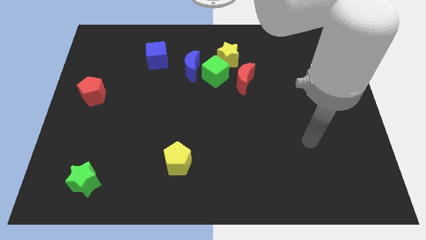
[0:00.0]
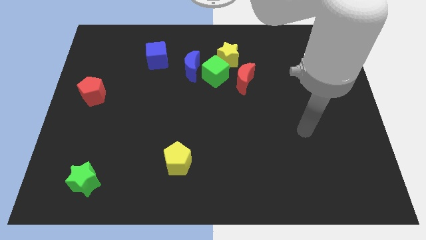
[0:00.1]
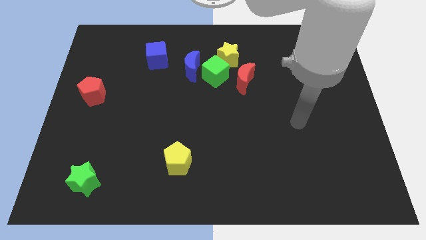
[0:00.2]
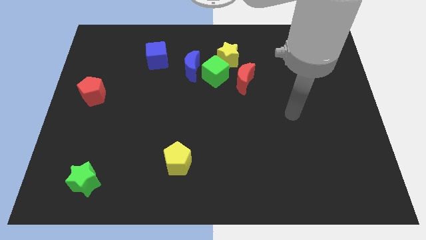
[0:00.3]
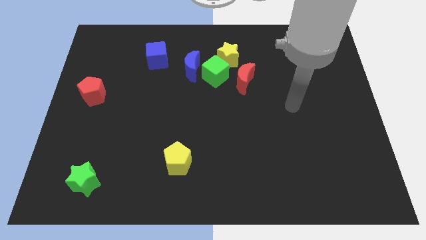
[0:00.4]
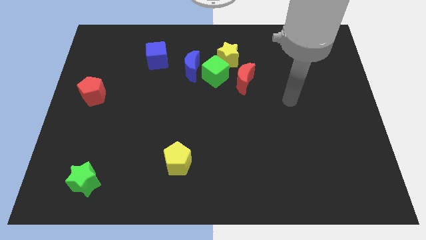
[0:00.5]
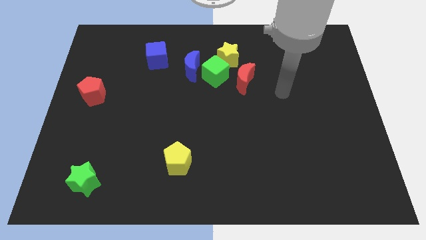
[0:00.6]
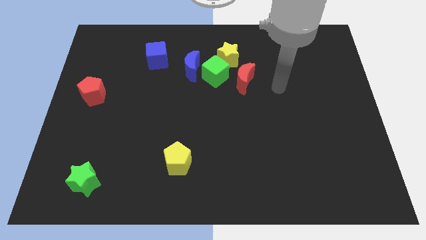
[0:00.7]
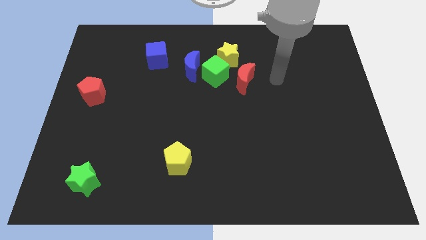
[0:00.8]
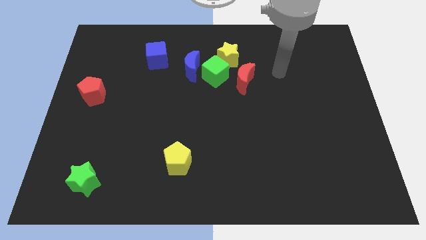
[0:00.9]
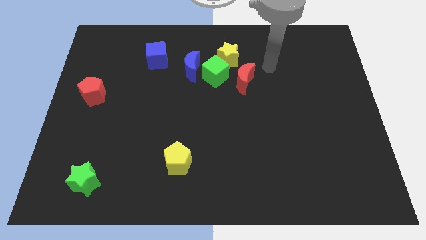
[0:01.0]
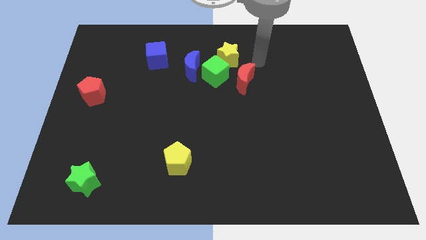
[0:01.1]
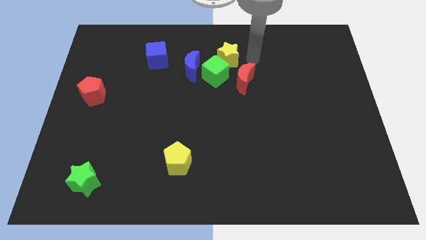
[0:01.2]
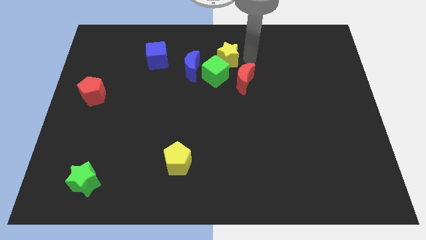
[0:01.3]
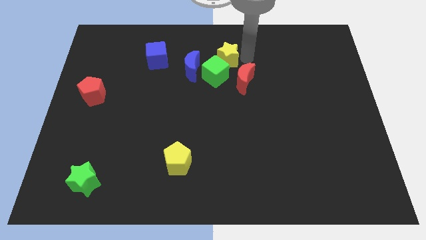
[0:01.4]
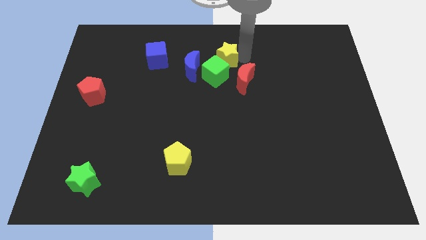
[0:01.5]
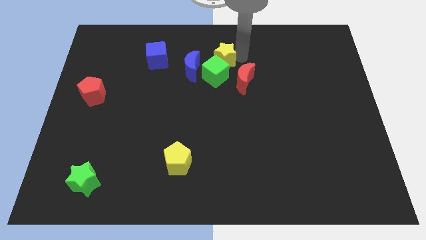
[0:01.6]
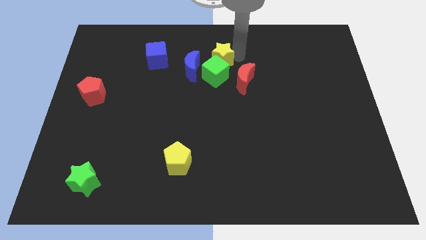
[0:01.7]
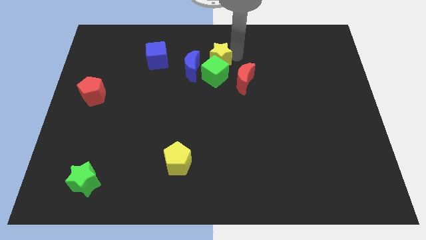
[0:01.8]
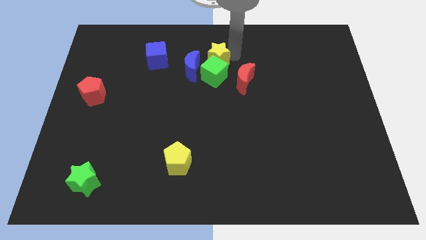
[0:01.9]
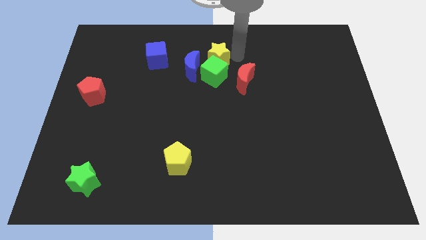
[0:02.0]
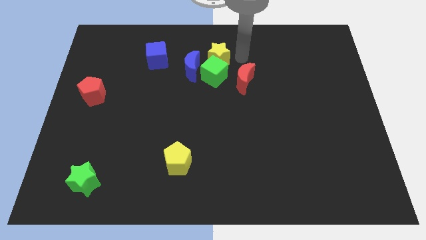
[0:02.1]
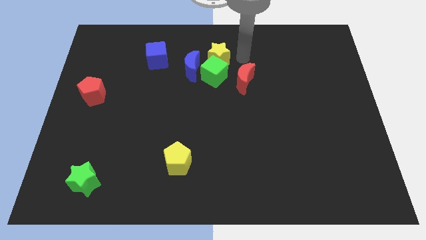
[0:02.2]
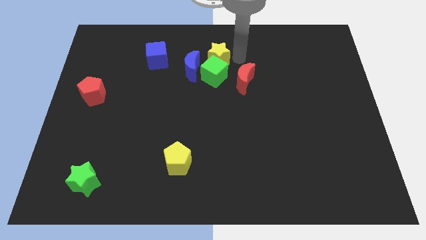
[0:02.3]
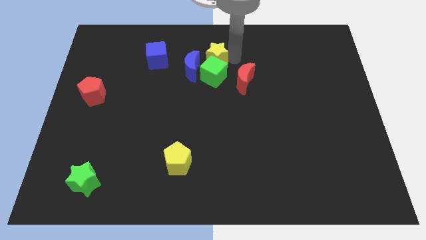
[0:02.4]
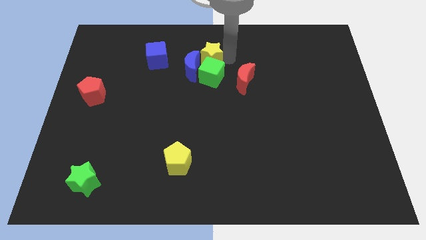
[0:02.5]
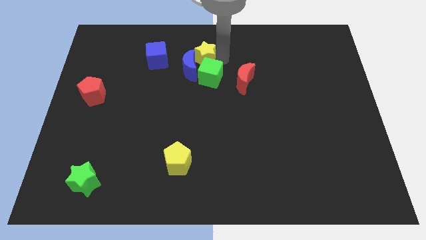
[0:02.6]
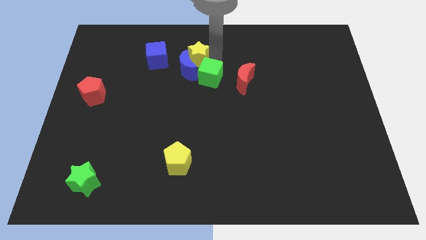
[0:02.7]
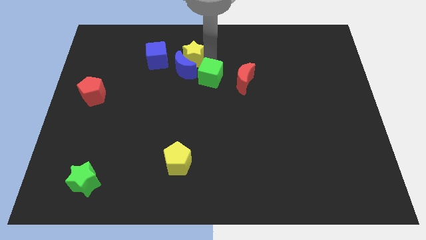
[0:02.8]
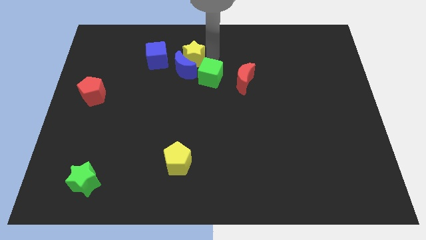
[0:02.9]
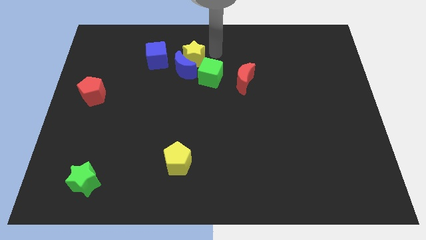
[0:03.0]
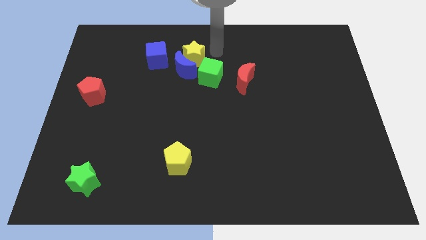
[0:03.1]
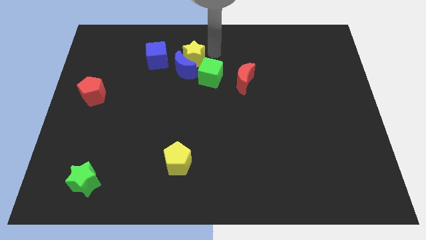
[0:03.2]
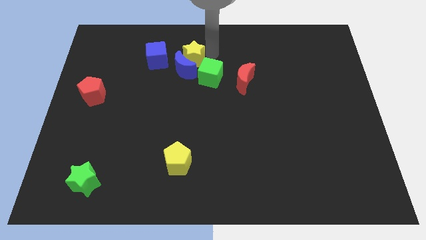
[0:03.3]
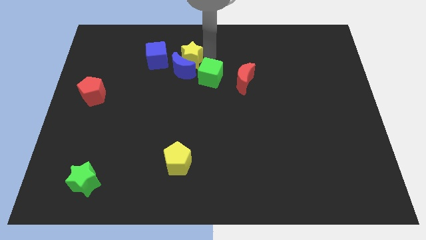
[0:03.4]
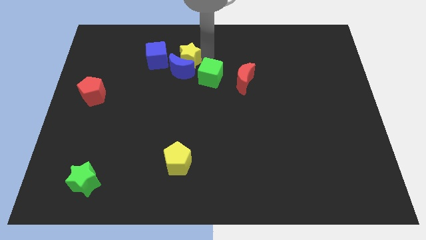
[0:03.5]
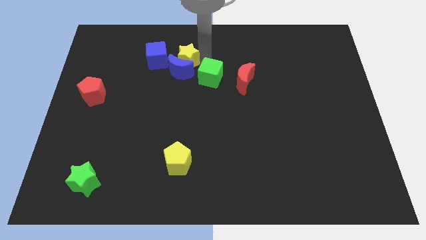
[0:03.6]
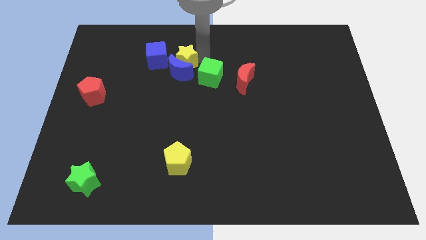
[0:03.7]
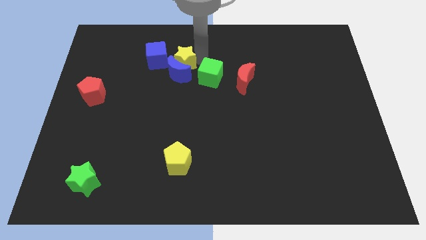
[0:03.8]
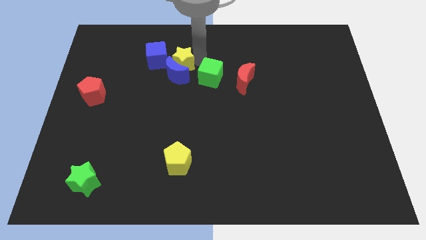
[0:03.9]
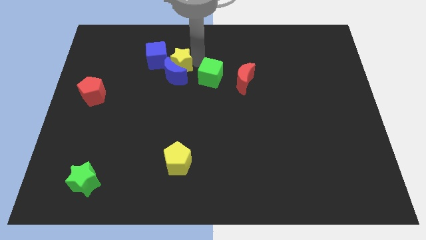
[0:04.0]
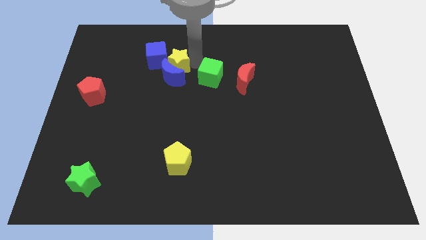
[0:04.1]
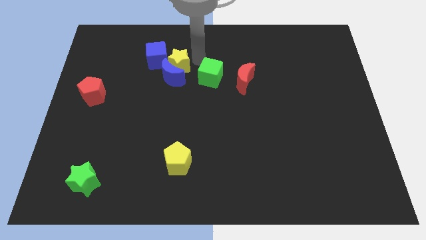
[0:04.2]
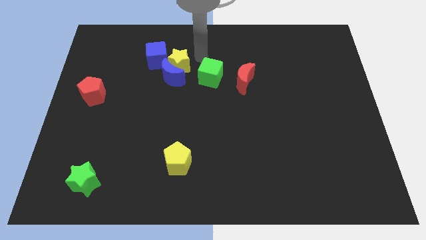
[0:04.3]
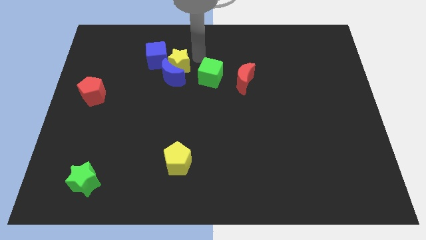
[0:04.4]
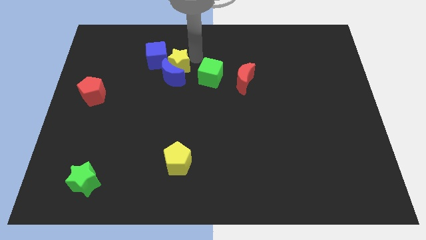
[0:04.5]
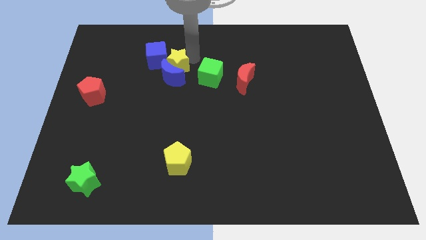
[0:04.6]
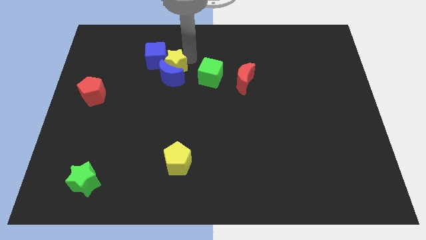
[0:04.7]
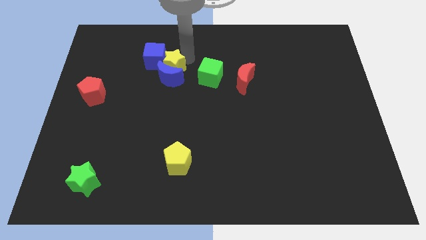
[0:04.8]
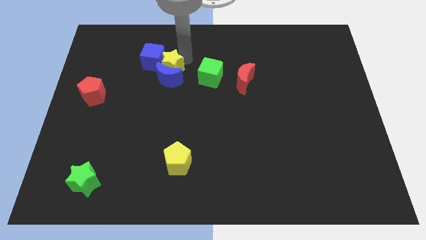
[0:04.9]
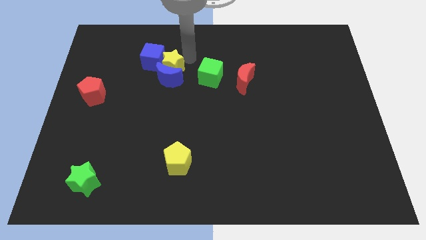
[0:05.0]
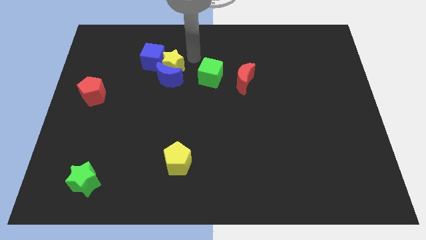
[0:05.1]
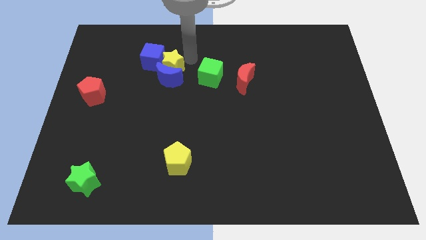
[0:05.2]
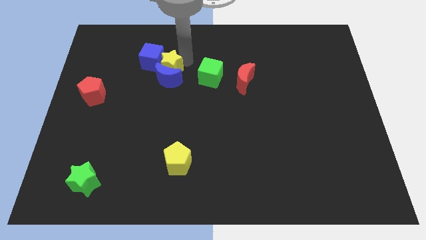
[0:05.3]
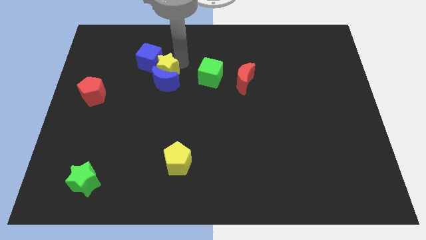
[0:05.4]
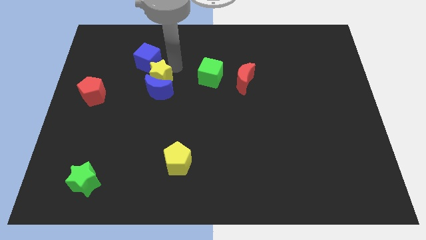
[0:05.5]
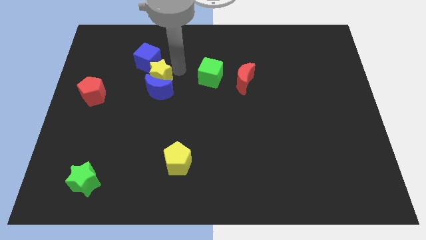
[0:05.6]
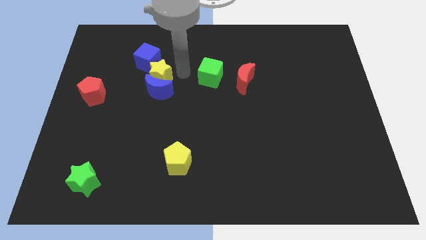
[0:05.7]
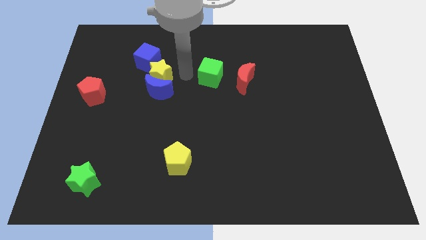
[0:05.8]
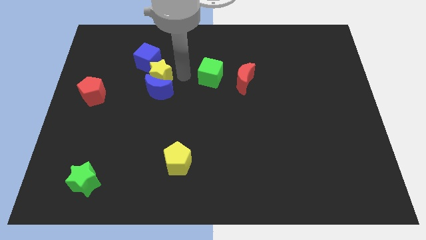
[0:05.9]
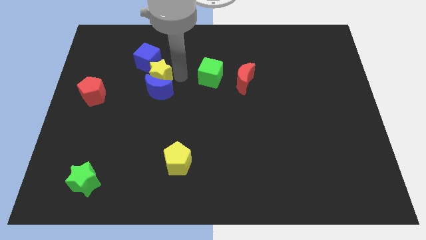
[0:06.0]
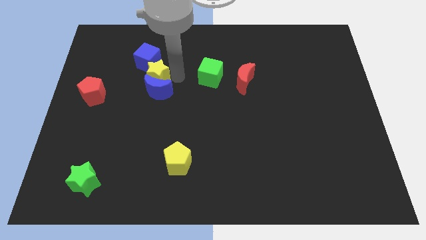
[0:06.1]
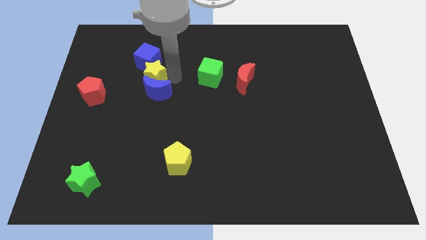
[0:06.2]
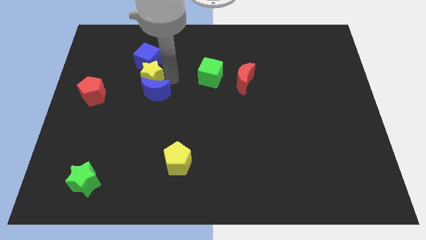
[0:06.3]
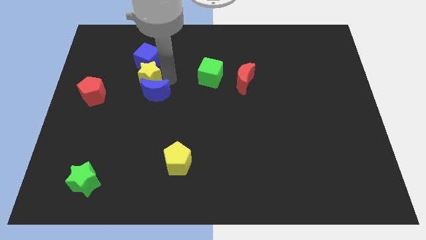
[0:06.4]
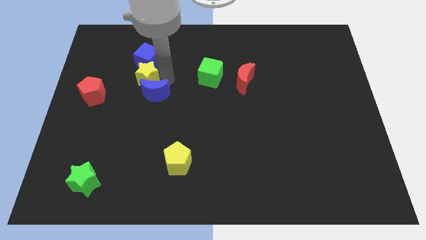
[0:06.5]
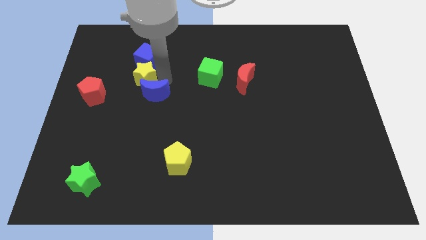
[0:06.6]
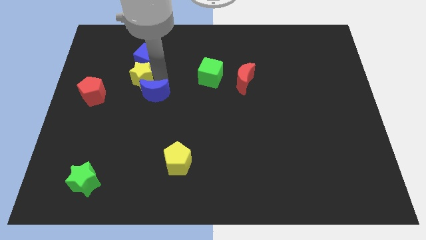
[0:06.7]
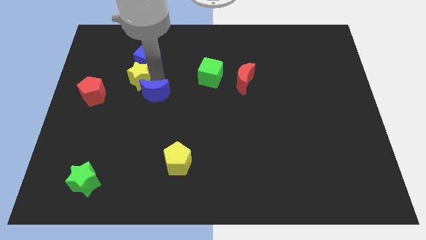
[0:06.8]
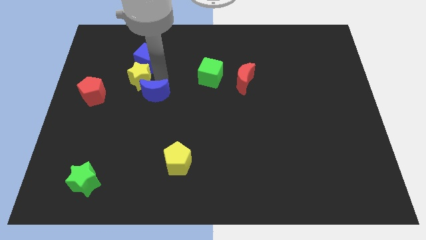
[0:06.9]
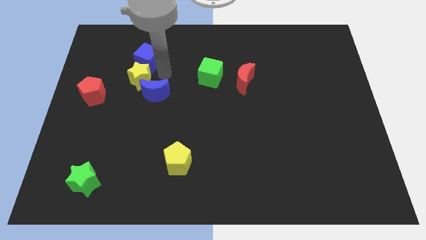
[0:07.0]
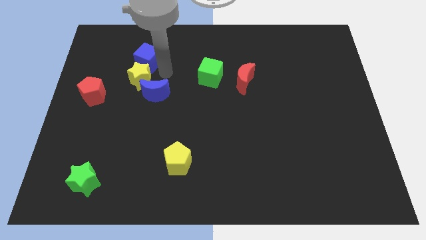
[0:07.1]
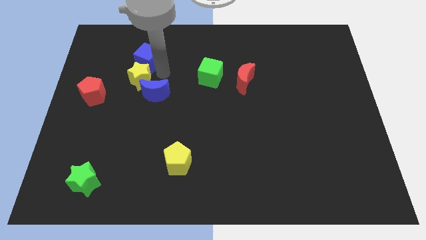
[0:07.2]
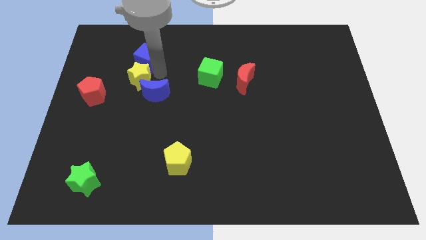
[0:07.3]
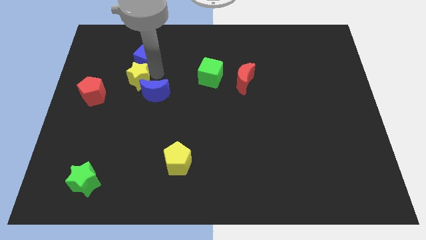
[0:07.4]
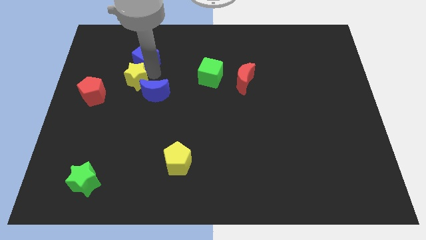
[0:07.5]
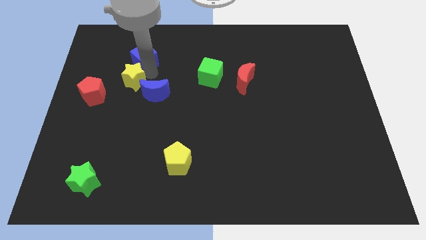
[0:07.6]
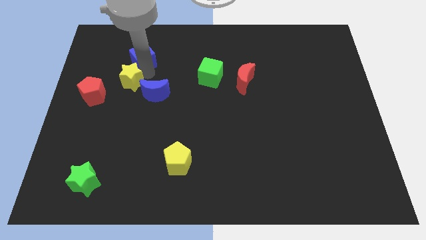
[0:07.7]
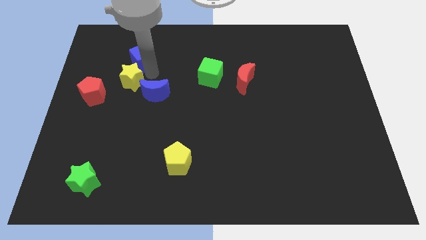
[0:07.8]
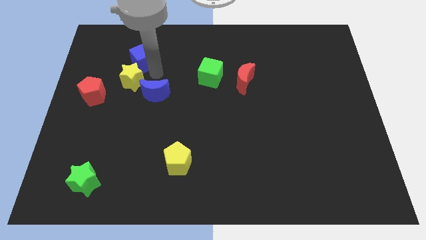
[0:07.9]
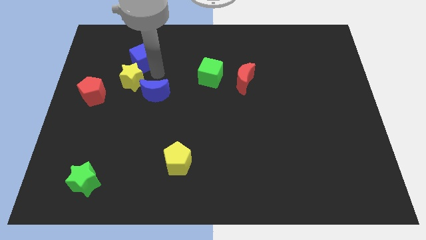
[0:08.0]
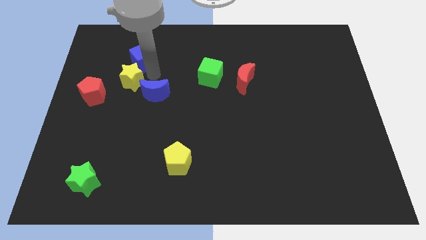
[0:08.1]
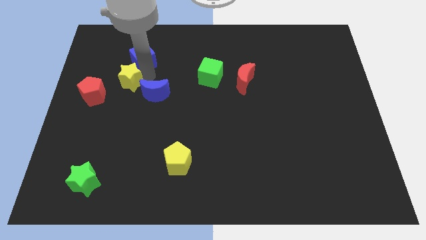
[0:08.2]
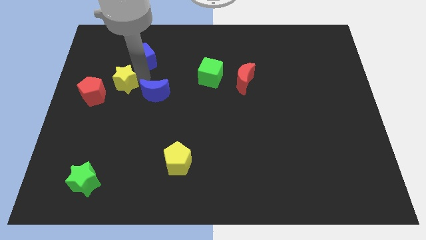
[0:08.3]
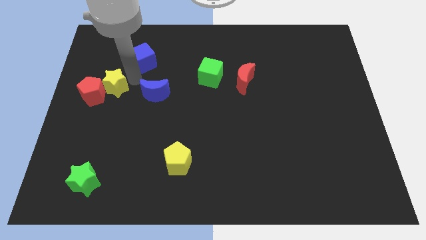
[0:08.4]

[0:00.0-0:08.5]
push the yellow star towards the red pentagon
